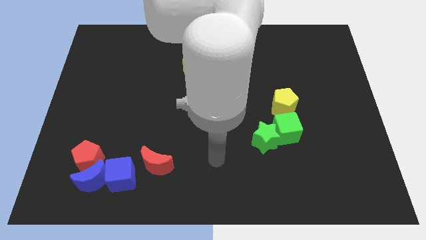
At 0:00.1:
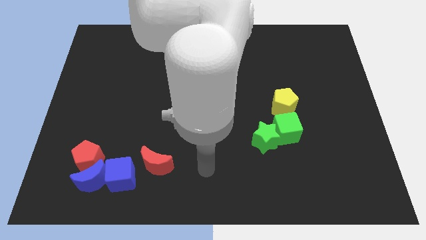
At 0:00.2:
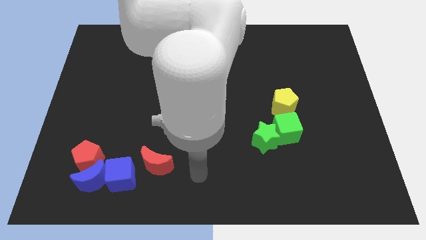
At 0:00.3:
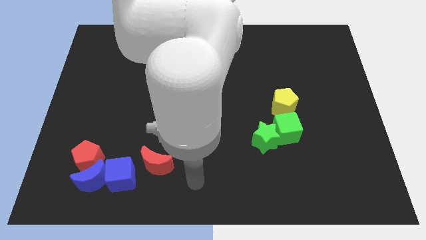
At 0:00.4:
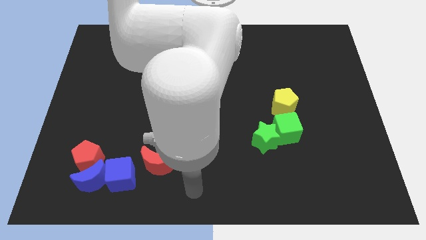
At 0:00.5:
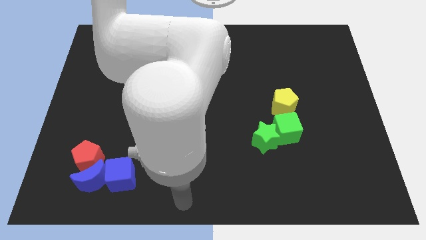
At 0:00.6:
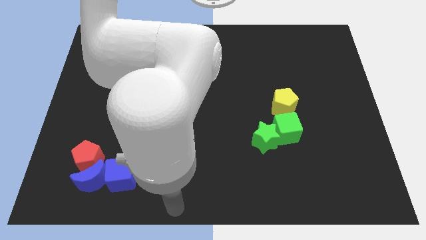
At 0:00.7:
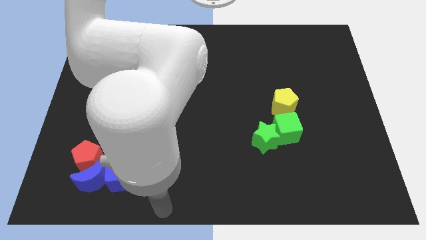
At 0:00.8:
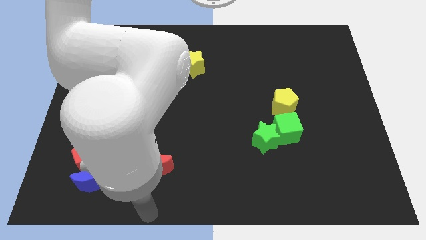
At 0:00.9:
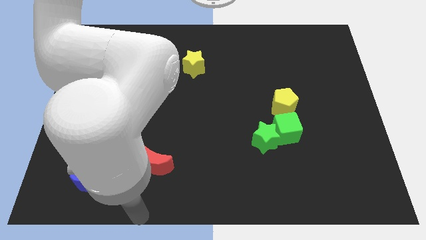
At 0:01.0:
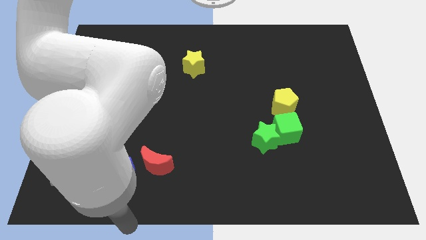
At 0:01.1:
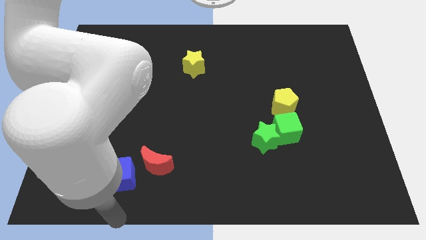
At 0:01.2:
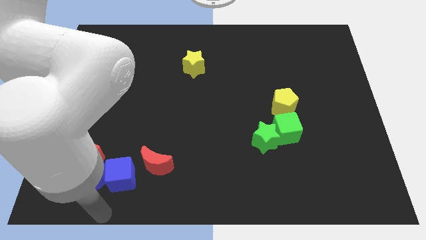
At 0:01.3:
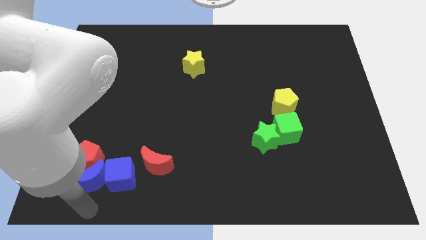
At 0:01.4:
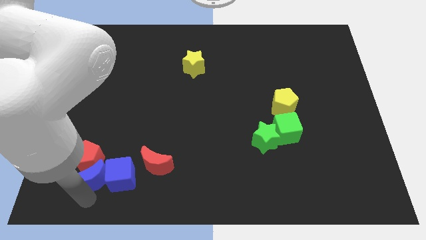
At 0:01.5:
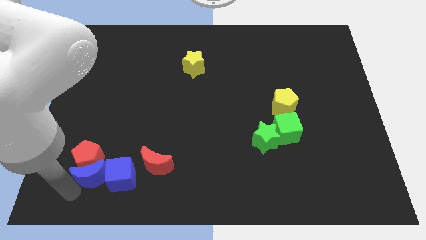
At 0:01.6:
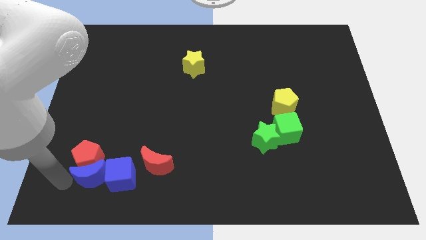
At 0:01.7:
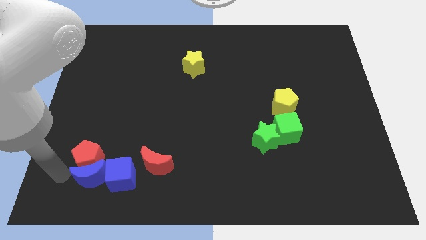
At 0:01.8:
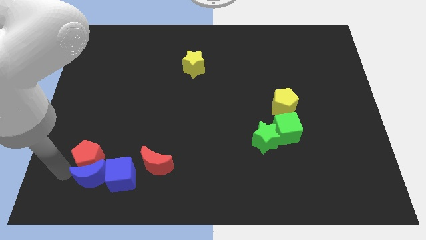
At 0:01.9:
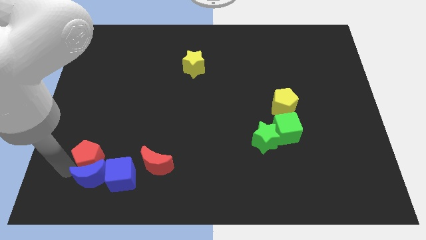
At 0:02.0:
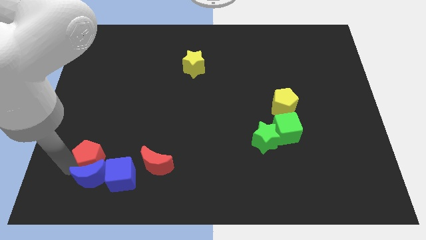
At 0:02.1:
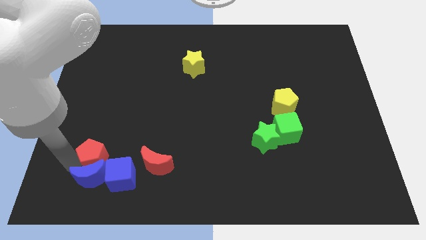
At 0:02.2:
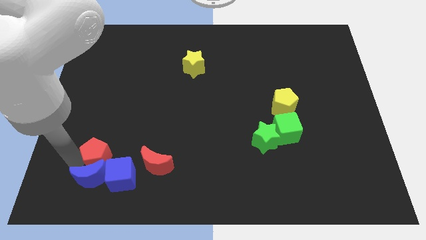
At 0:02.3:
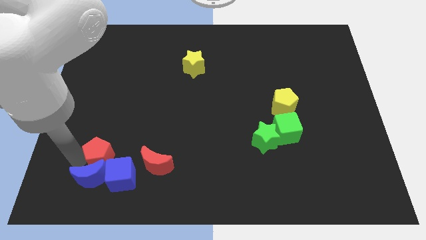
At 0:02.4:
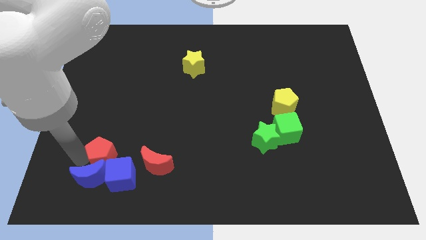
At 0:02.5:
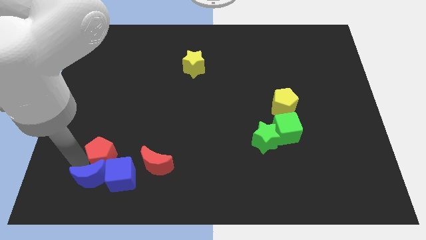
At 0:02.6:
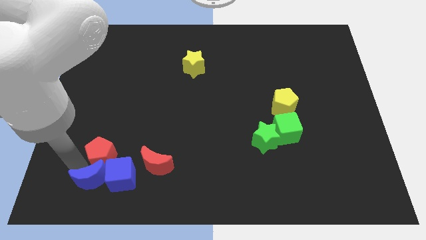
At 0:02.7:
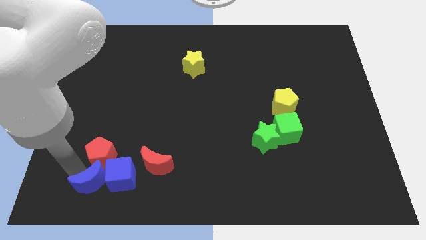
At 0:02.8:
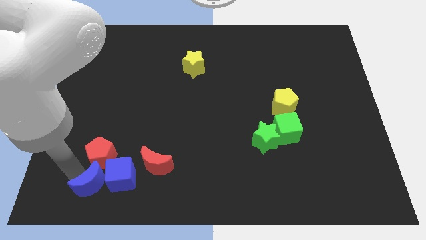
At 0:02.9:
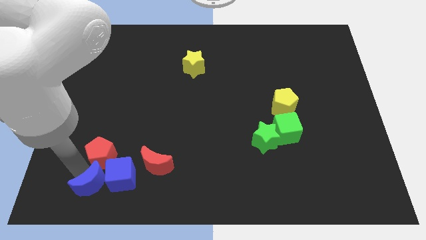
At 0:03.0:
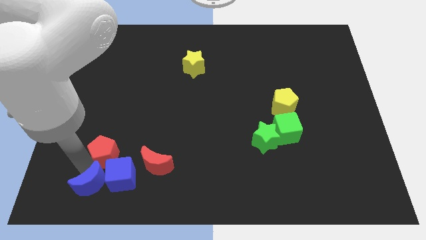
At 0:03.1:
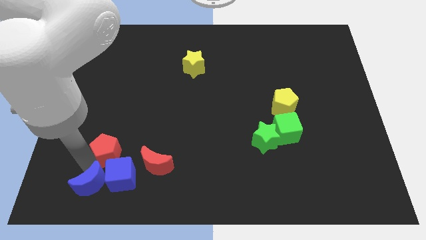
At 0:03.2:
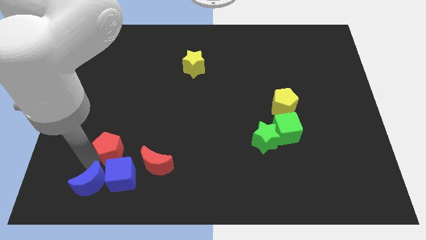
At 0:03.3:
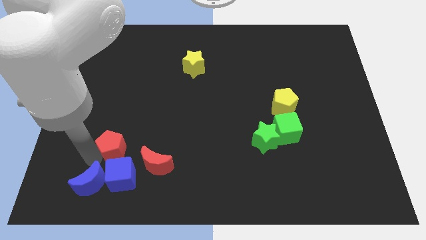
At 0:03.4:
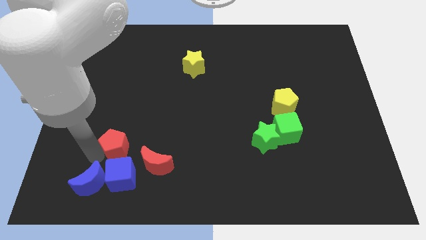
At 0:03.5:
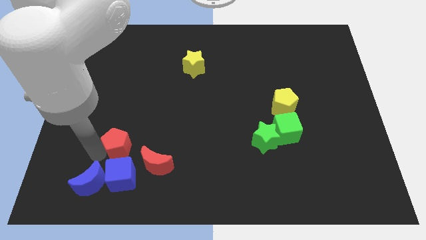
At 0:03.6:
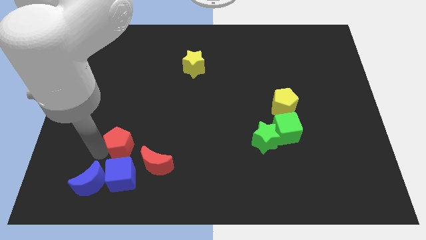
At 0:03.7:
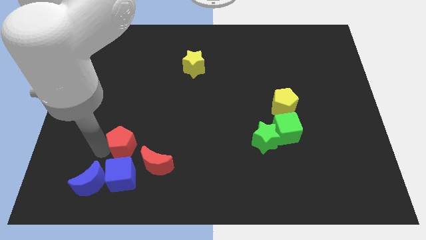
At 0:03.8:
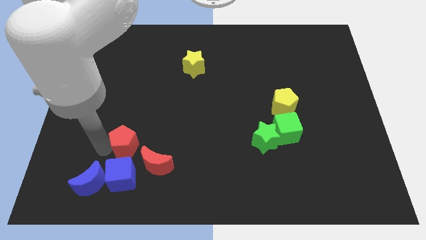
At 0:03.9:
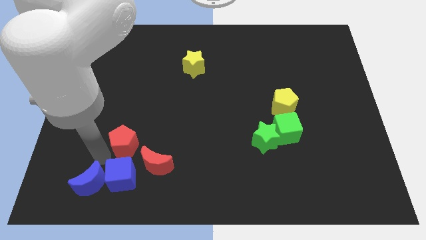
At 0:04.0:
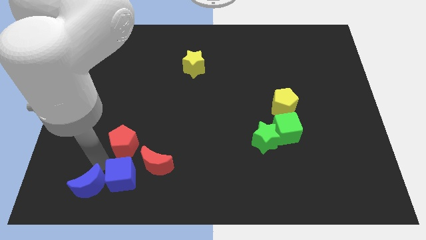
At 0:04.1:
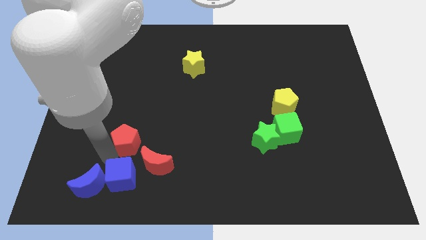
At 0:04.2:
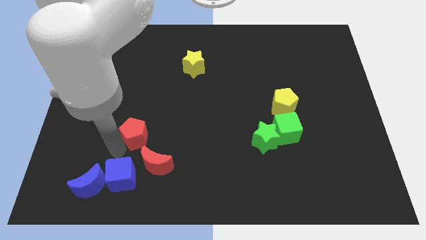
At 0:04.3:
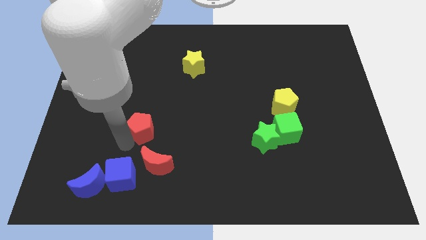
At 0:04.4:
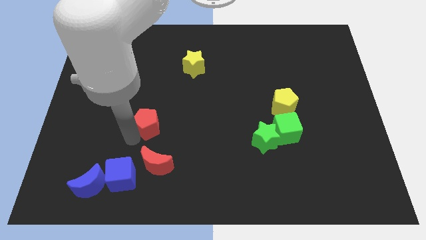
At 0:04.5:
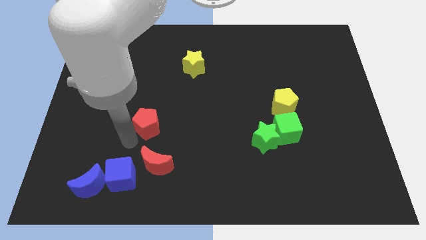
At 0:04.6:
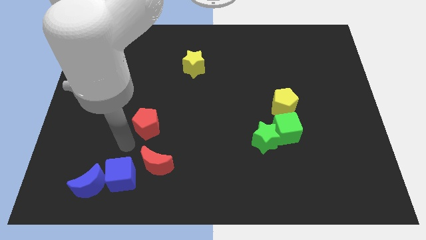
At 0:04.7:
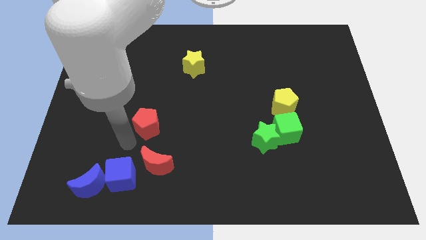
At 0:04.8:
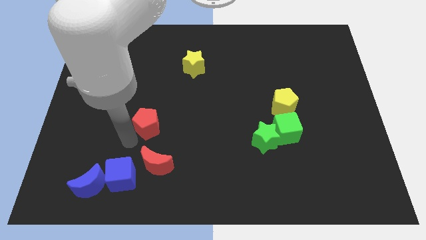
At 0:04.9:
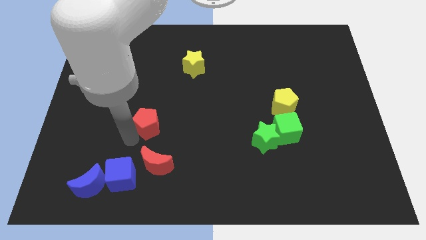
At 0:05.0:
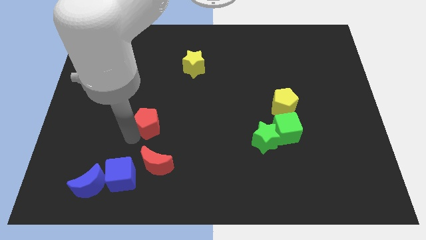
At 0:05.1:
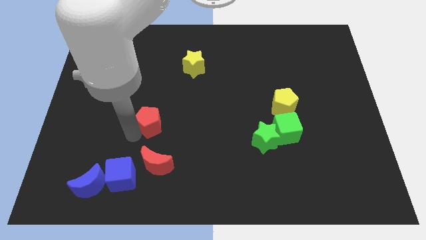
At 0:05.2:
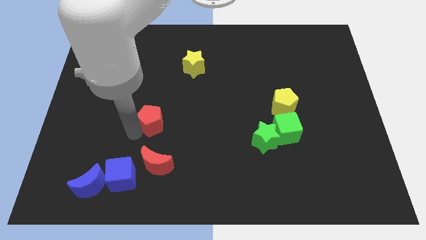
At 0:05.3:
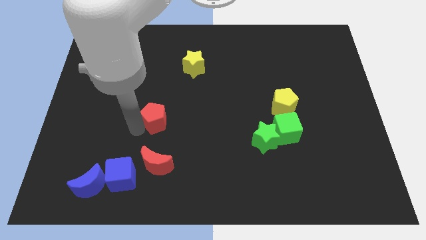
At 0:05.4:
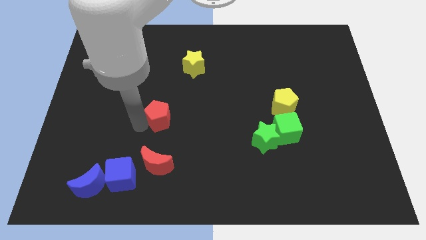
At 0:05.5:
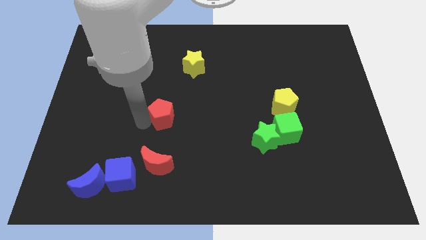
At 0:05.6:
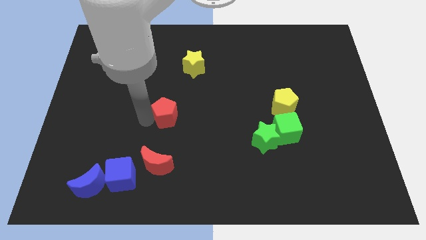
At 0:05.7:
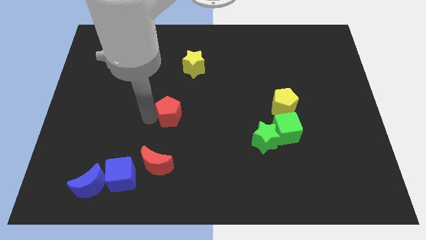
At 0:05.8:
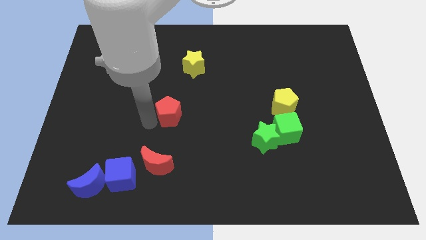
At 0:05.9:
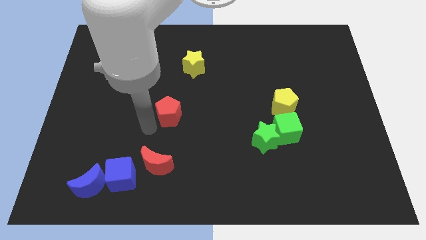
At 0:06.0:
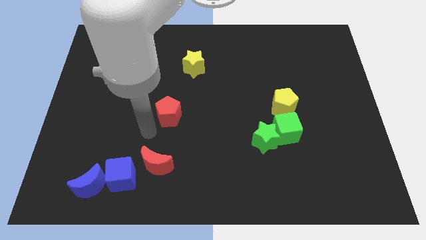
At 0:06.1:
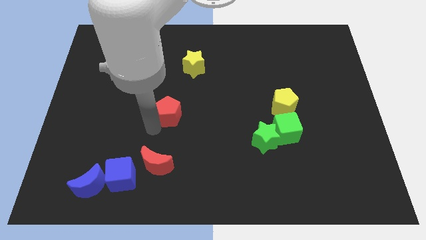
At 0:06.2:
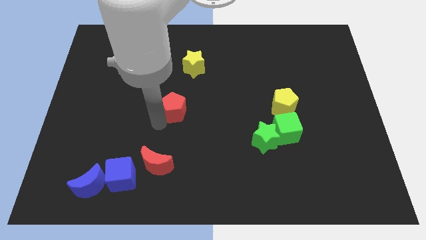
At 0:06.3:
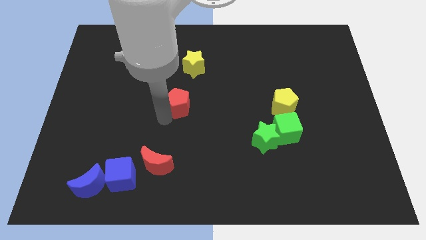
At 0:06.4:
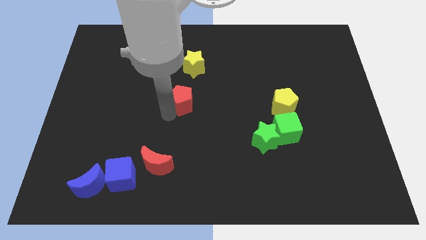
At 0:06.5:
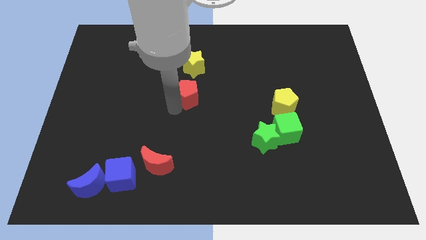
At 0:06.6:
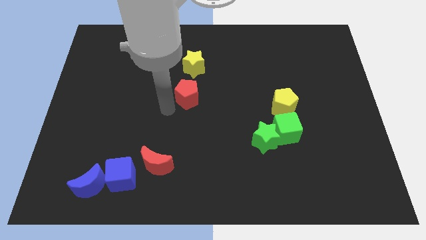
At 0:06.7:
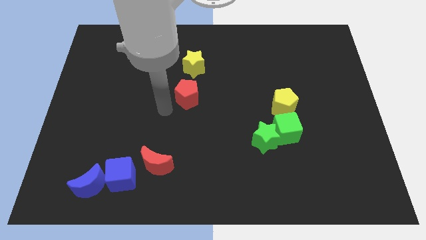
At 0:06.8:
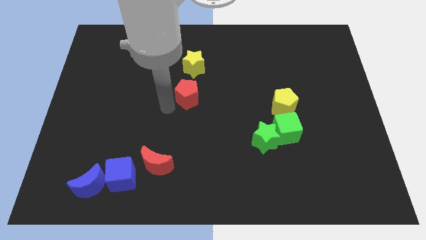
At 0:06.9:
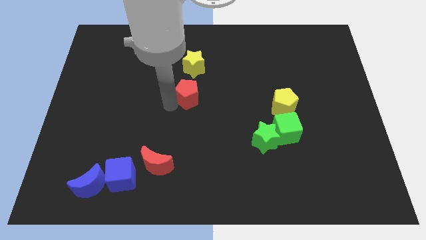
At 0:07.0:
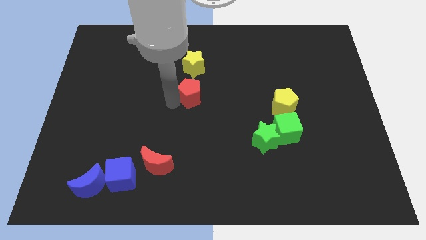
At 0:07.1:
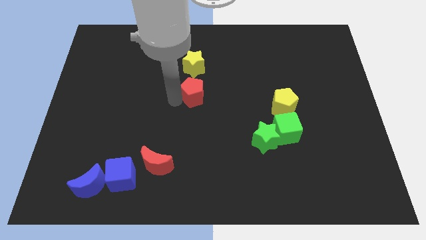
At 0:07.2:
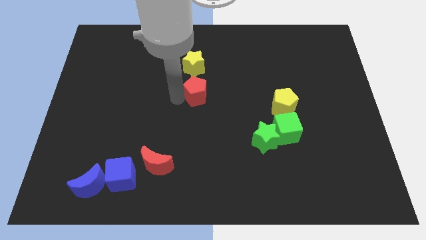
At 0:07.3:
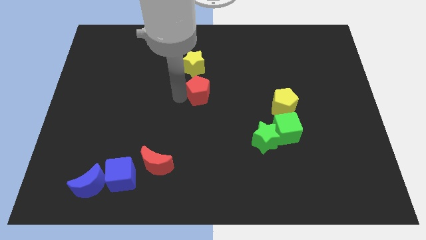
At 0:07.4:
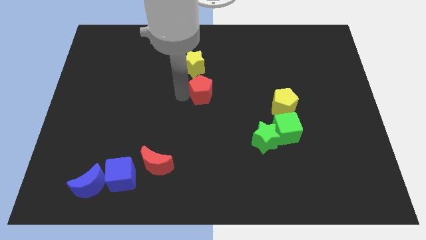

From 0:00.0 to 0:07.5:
put the red pentagon diagonally down and to the right of the yellow star
